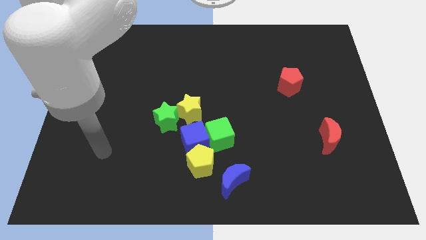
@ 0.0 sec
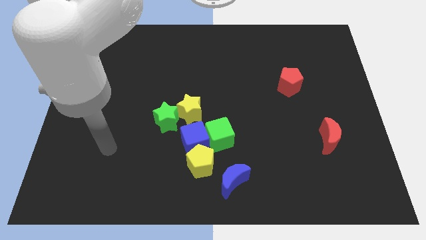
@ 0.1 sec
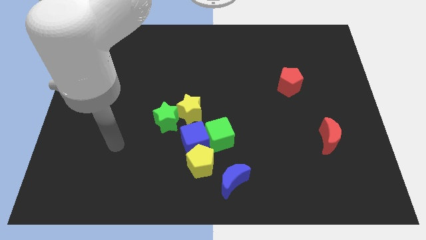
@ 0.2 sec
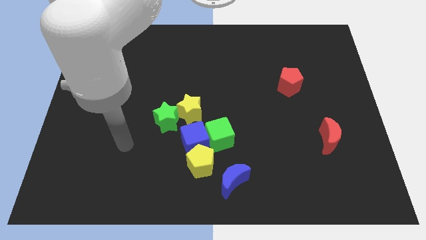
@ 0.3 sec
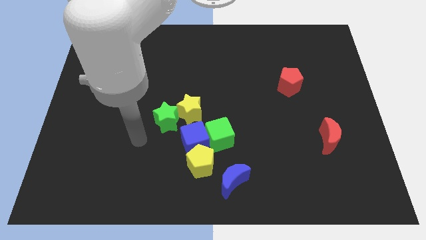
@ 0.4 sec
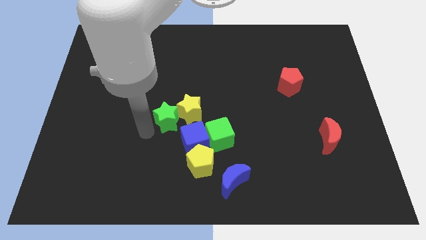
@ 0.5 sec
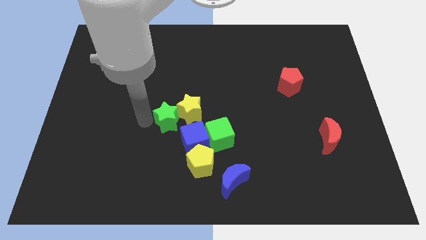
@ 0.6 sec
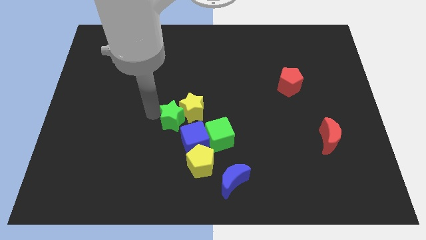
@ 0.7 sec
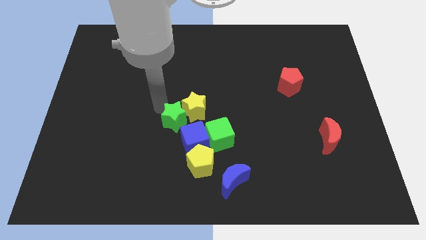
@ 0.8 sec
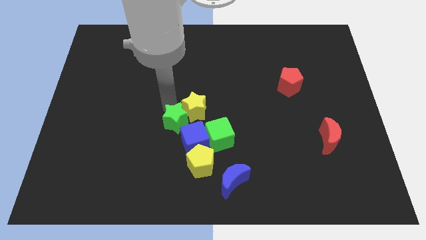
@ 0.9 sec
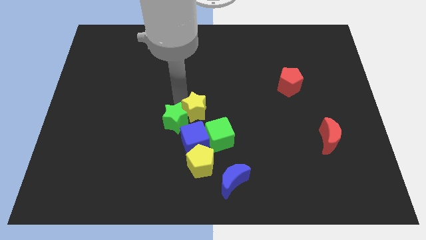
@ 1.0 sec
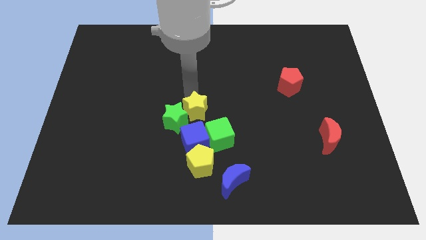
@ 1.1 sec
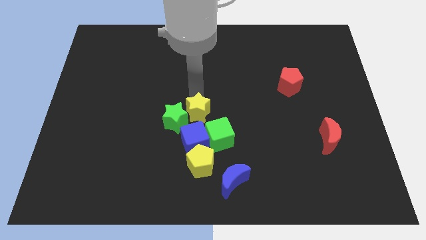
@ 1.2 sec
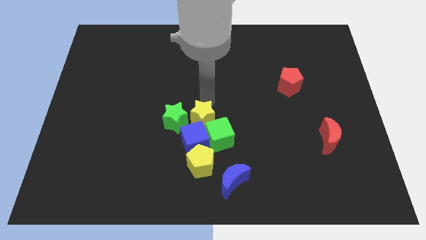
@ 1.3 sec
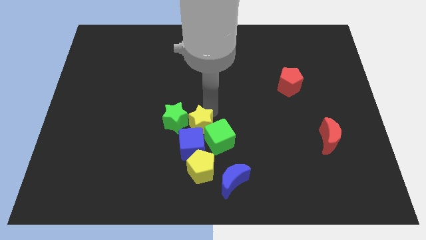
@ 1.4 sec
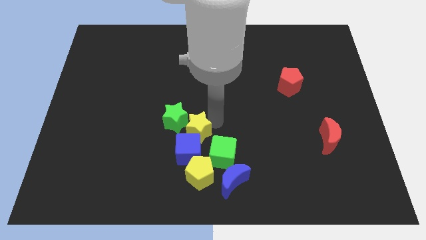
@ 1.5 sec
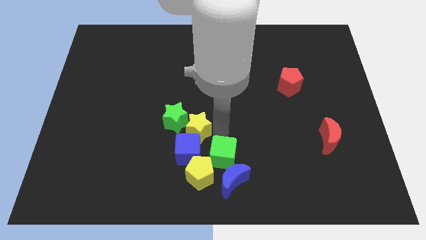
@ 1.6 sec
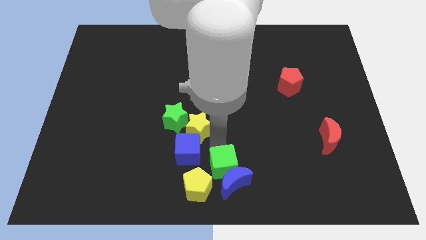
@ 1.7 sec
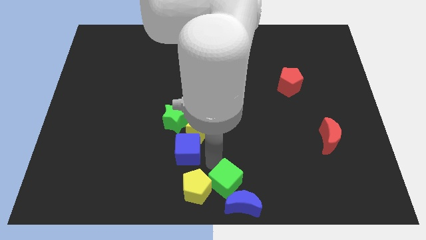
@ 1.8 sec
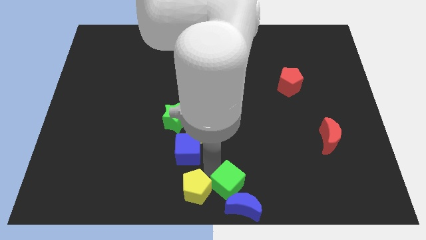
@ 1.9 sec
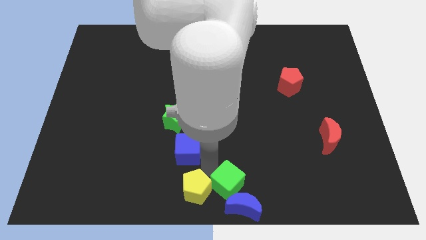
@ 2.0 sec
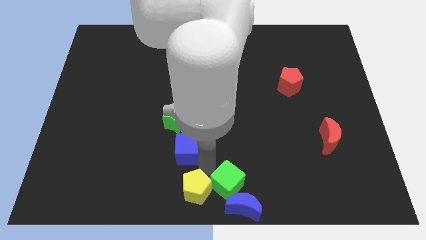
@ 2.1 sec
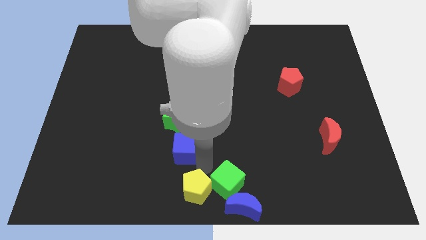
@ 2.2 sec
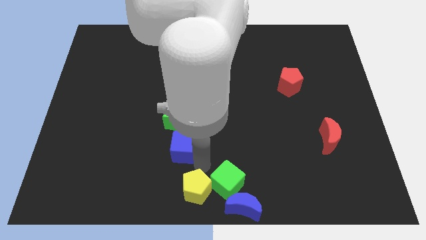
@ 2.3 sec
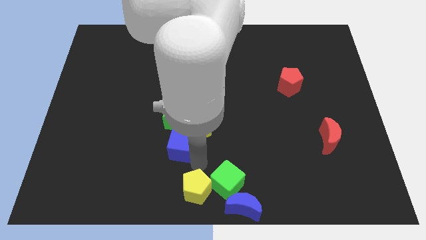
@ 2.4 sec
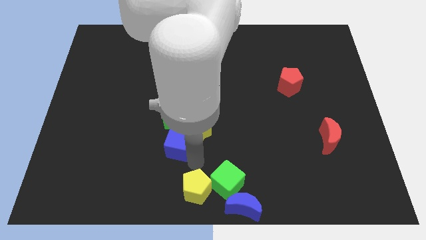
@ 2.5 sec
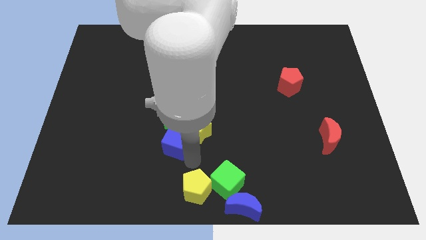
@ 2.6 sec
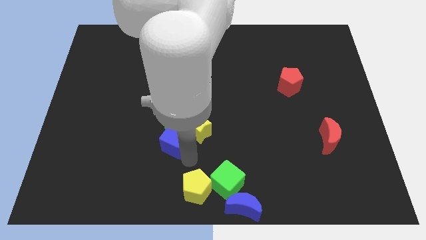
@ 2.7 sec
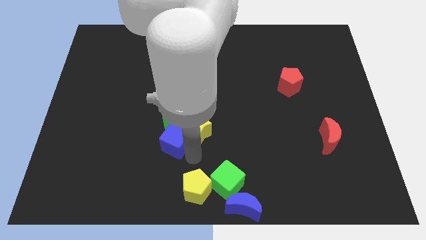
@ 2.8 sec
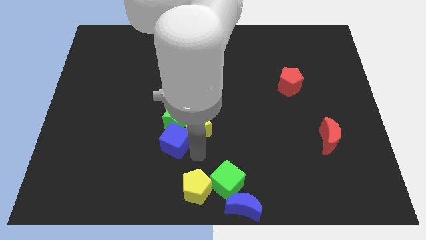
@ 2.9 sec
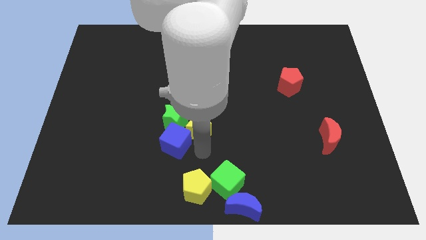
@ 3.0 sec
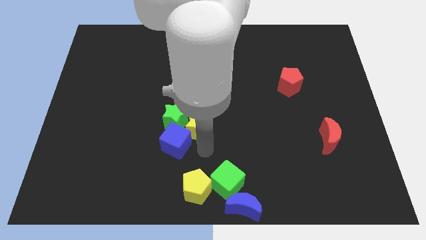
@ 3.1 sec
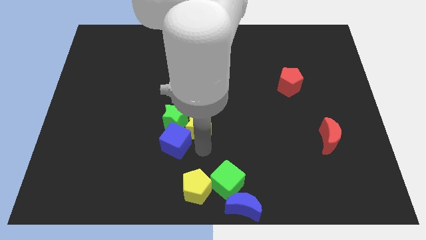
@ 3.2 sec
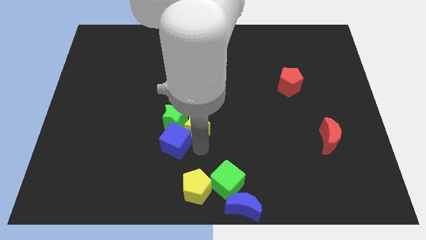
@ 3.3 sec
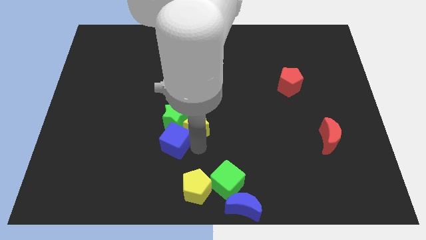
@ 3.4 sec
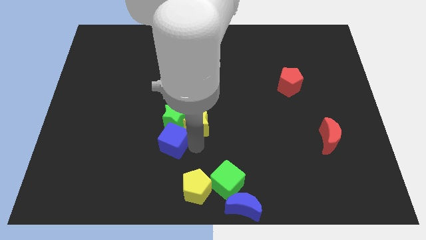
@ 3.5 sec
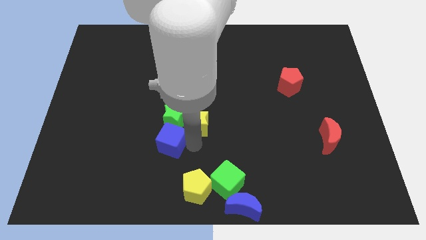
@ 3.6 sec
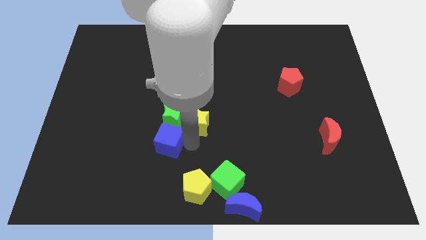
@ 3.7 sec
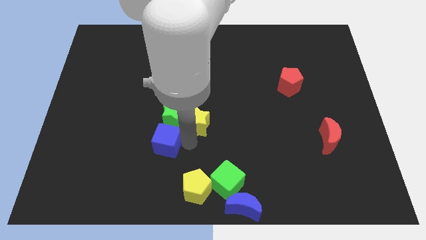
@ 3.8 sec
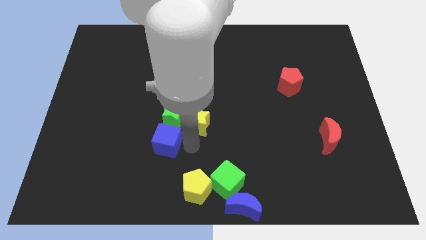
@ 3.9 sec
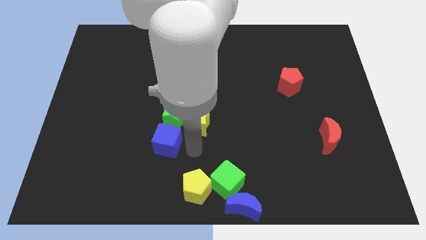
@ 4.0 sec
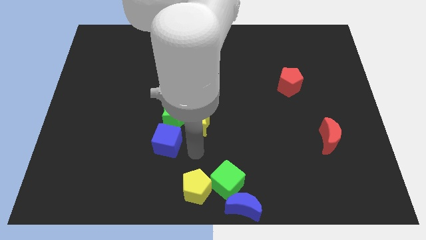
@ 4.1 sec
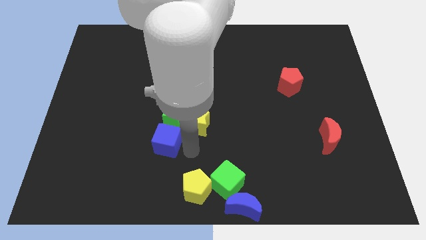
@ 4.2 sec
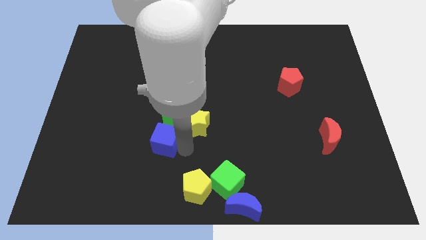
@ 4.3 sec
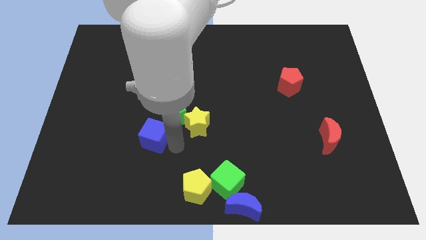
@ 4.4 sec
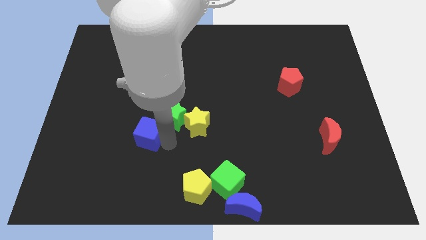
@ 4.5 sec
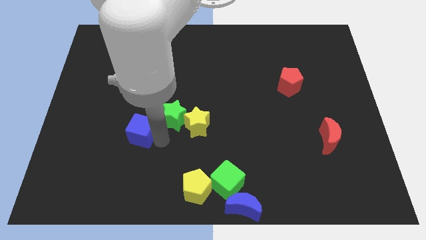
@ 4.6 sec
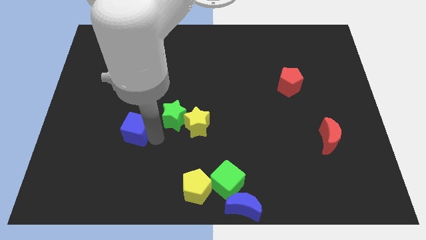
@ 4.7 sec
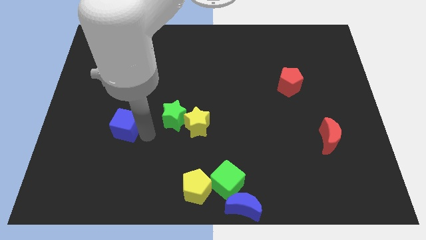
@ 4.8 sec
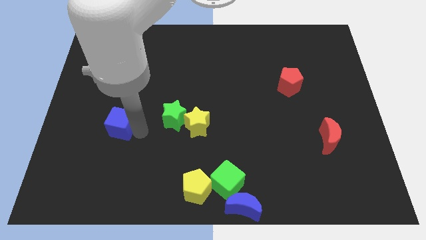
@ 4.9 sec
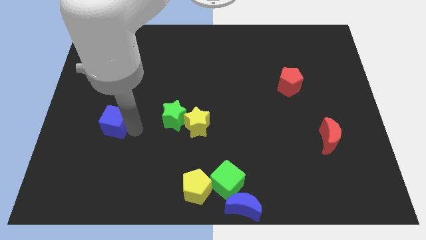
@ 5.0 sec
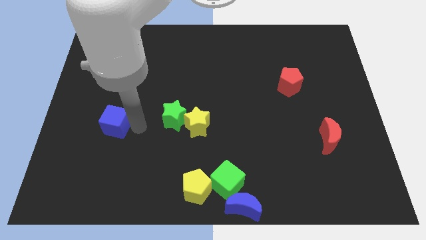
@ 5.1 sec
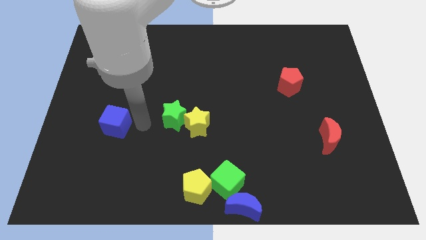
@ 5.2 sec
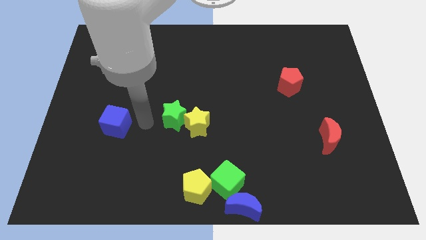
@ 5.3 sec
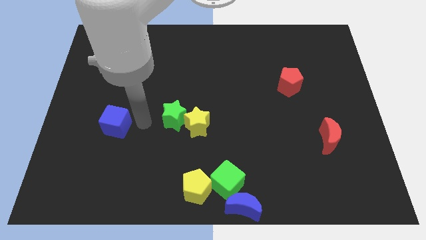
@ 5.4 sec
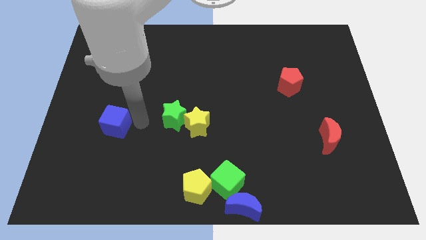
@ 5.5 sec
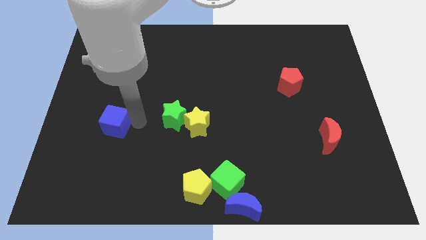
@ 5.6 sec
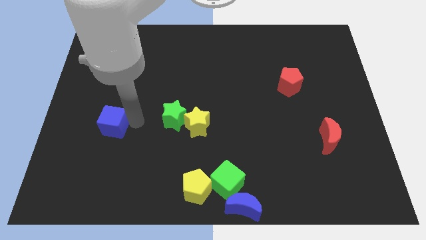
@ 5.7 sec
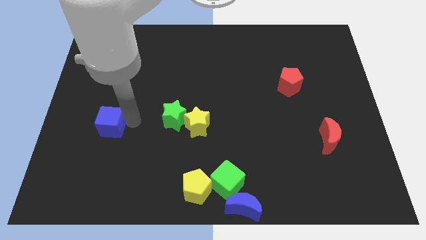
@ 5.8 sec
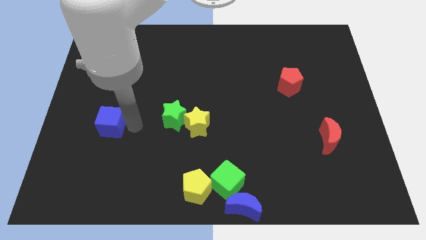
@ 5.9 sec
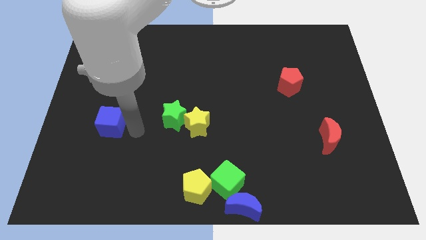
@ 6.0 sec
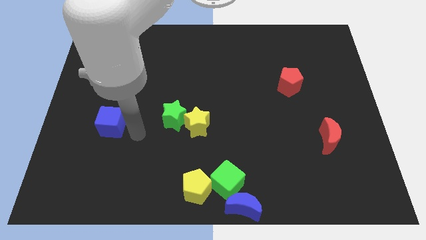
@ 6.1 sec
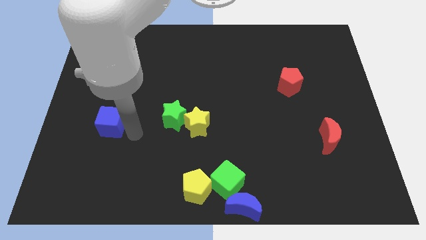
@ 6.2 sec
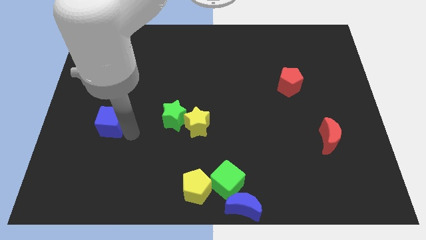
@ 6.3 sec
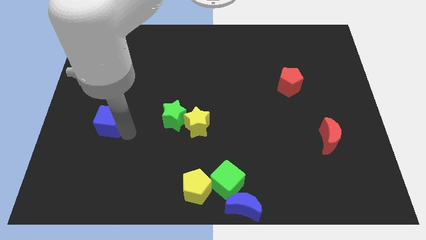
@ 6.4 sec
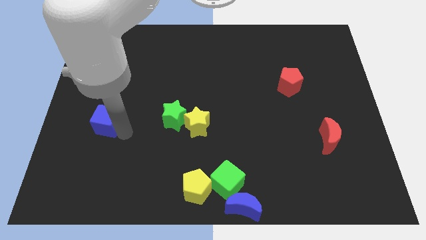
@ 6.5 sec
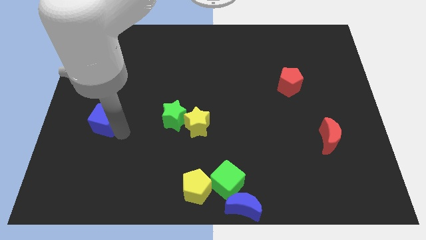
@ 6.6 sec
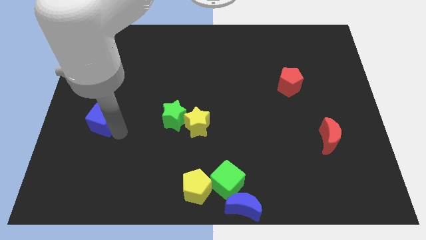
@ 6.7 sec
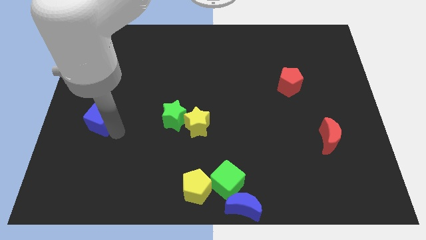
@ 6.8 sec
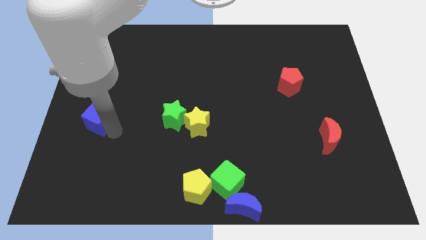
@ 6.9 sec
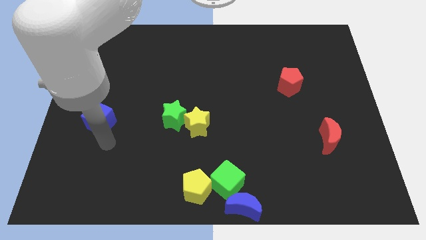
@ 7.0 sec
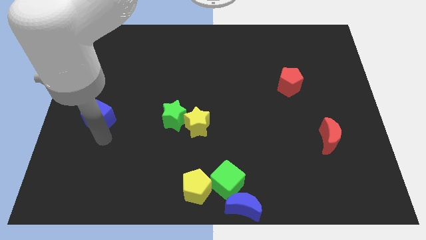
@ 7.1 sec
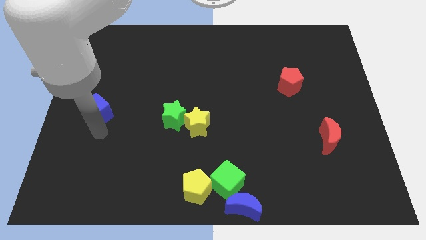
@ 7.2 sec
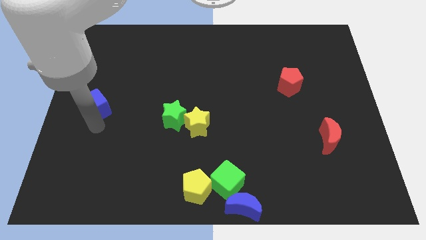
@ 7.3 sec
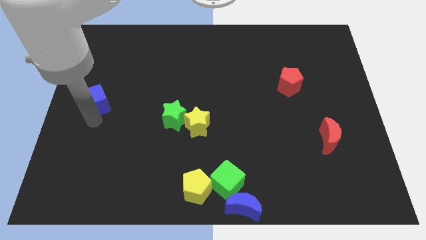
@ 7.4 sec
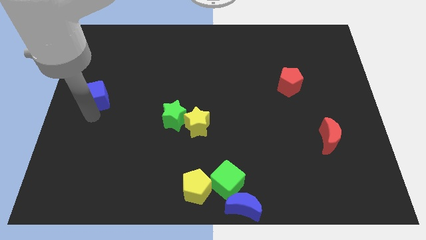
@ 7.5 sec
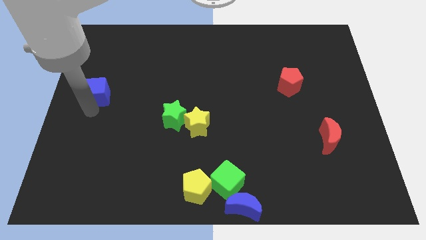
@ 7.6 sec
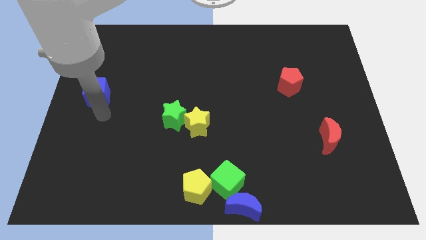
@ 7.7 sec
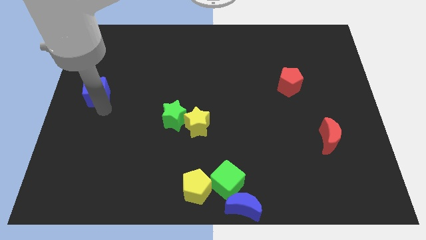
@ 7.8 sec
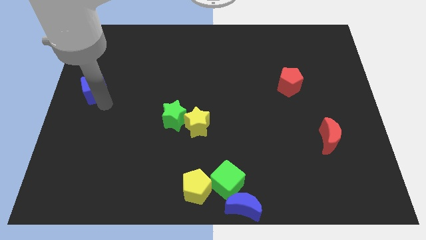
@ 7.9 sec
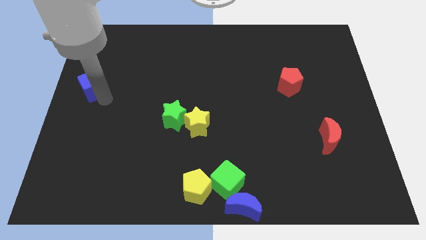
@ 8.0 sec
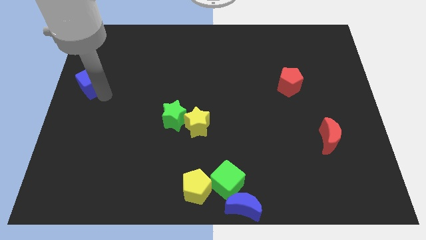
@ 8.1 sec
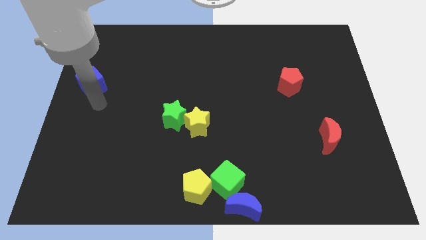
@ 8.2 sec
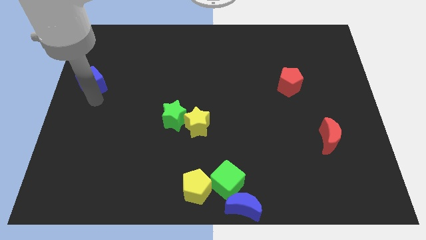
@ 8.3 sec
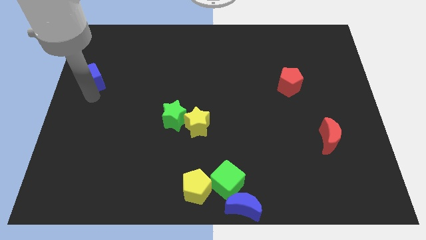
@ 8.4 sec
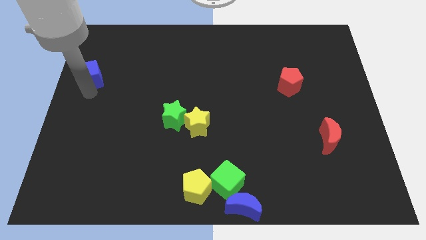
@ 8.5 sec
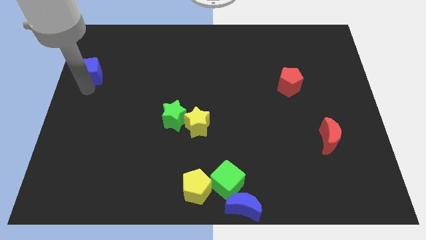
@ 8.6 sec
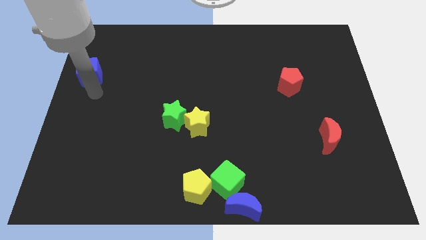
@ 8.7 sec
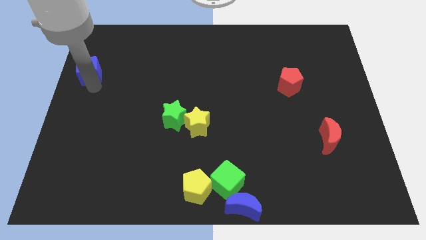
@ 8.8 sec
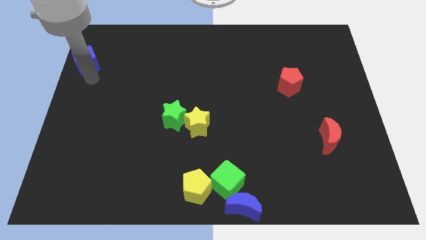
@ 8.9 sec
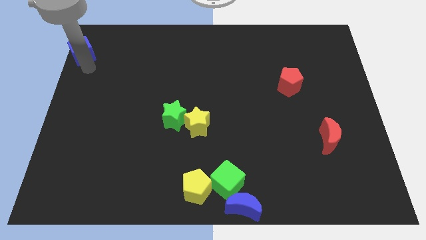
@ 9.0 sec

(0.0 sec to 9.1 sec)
put the blue cube to the upper left corner
